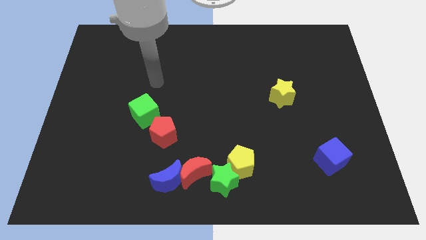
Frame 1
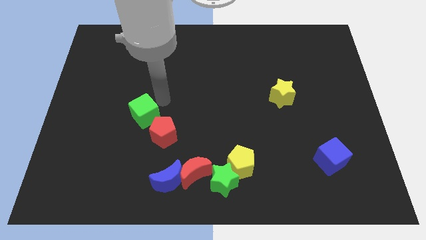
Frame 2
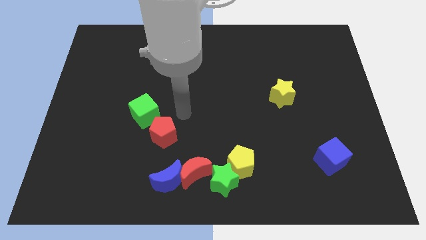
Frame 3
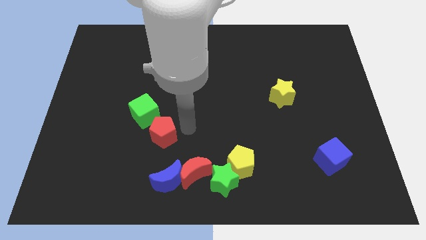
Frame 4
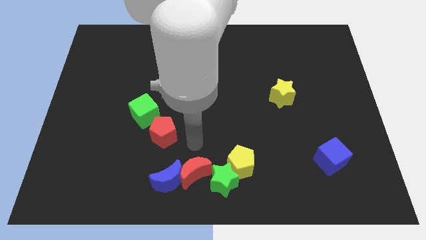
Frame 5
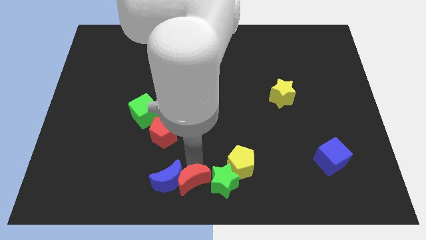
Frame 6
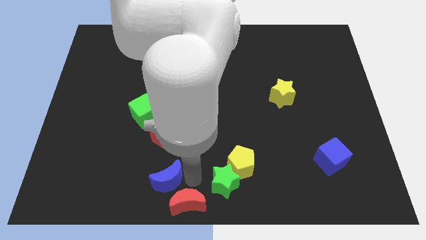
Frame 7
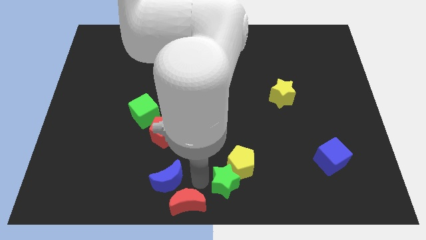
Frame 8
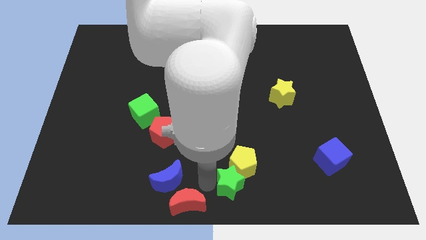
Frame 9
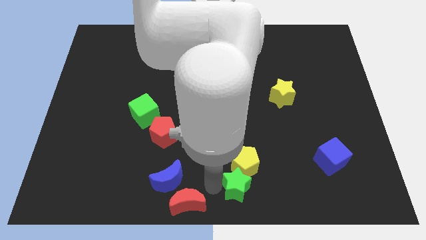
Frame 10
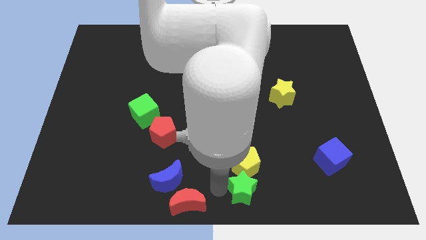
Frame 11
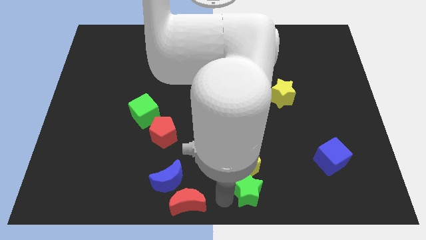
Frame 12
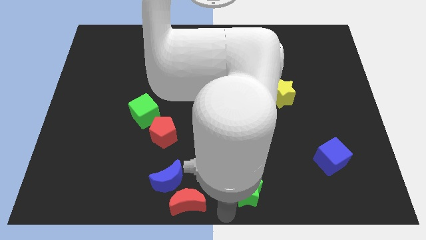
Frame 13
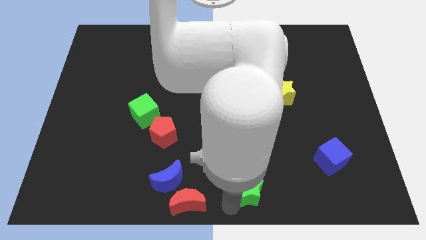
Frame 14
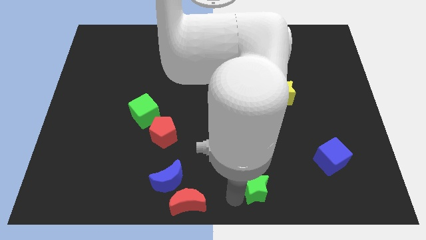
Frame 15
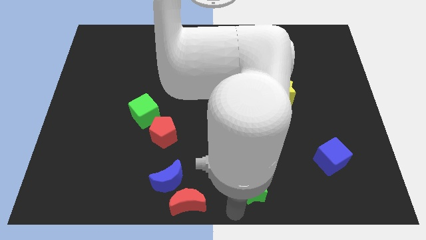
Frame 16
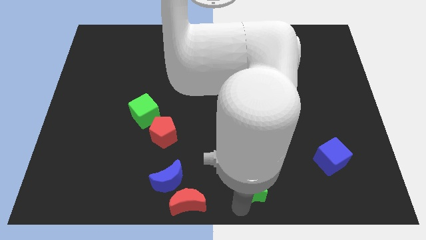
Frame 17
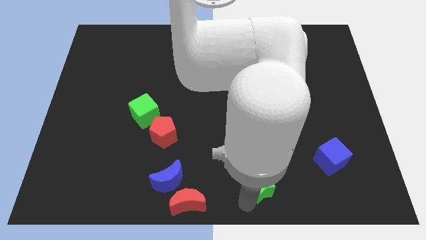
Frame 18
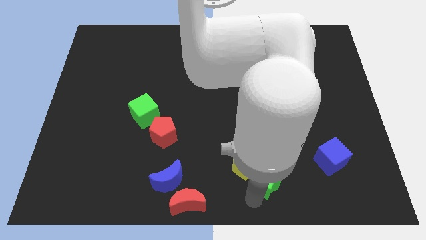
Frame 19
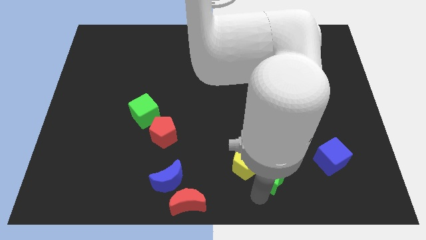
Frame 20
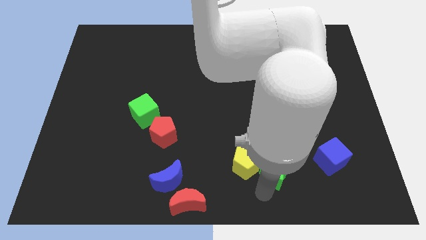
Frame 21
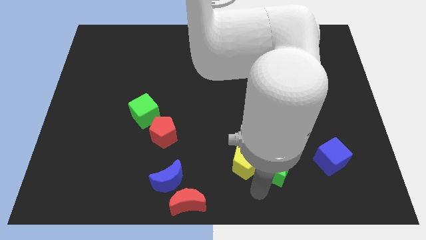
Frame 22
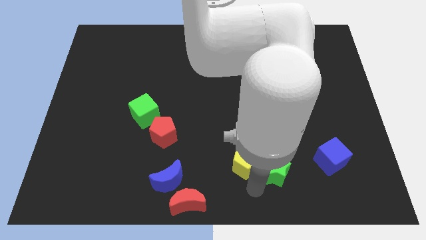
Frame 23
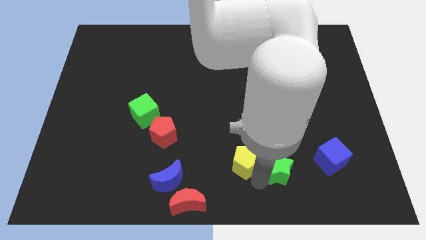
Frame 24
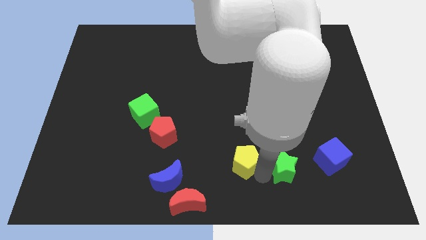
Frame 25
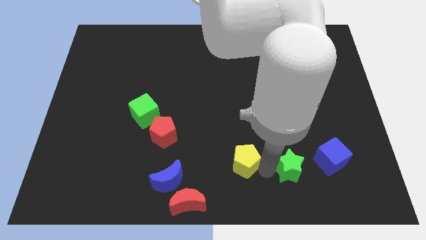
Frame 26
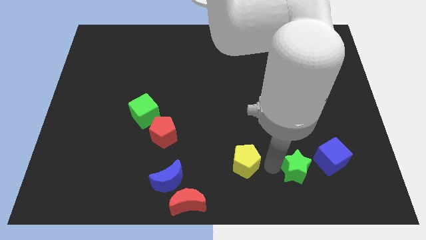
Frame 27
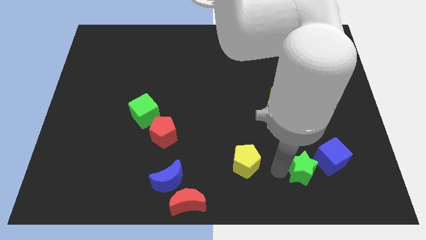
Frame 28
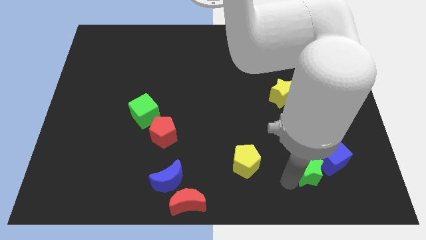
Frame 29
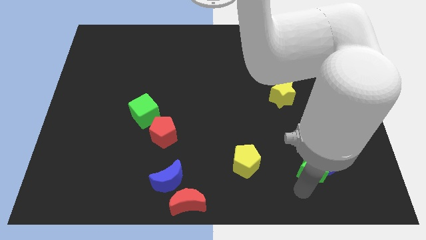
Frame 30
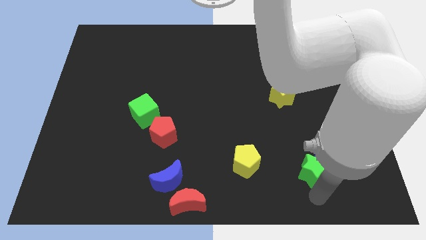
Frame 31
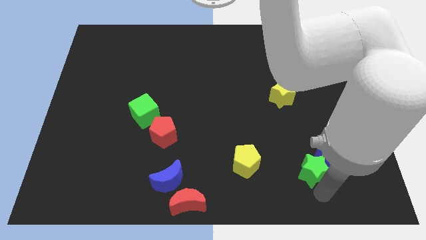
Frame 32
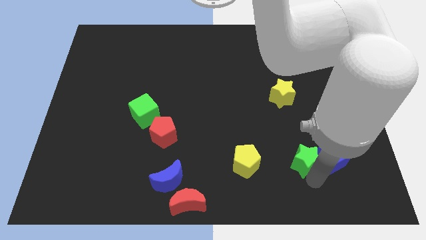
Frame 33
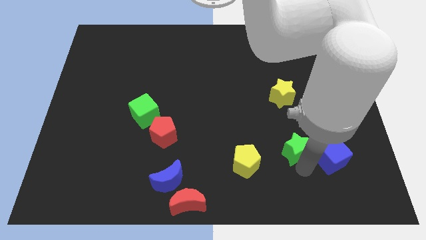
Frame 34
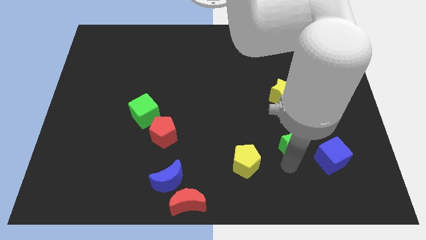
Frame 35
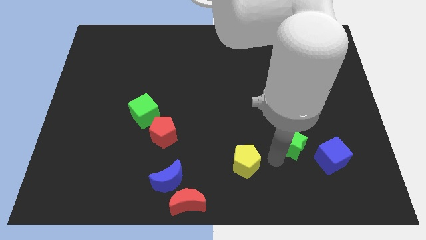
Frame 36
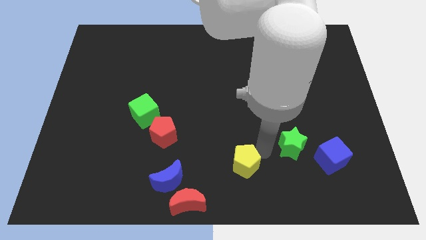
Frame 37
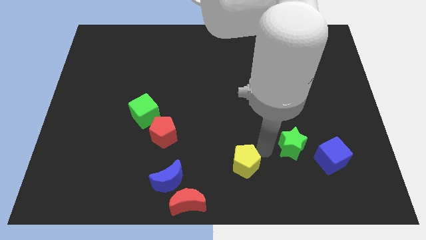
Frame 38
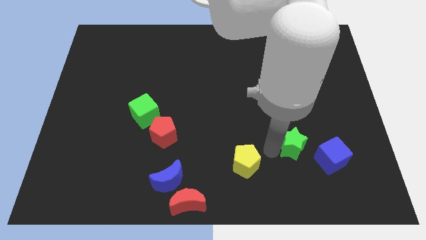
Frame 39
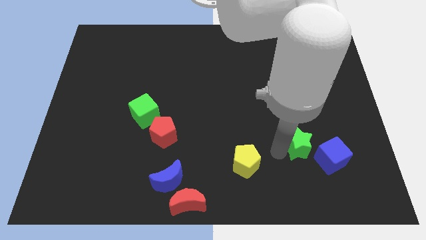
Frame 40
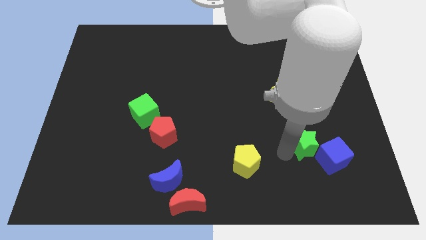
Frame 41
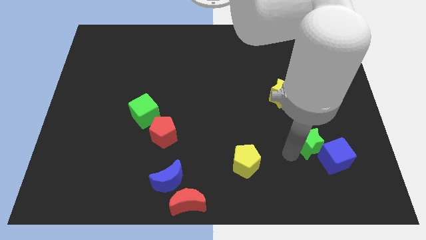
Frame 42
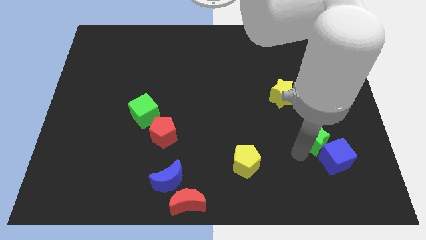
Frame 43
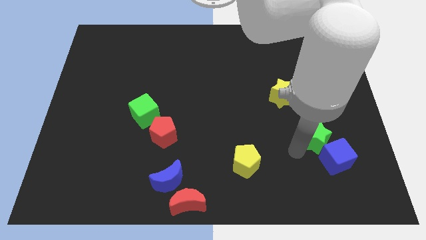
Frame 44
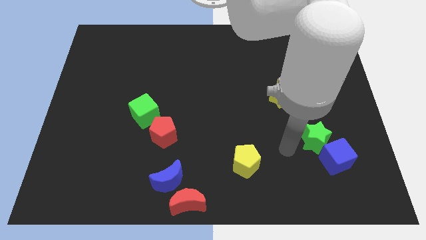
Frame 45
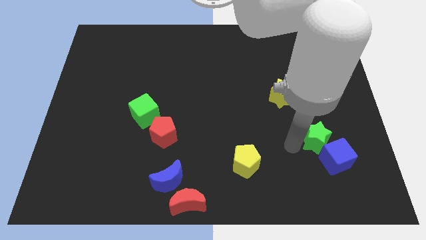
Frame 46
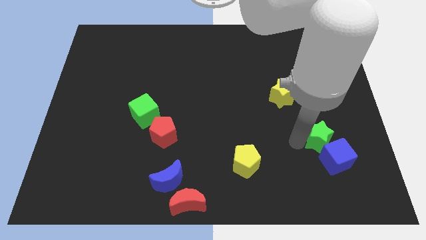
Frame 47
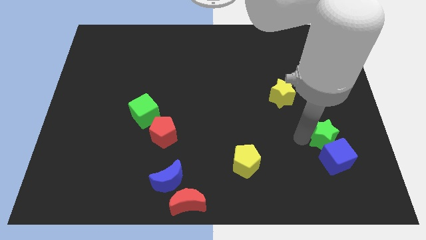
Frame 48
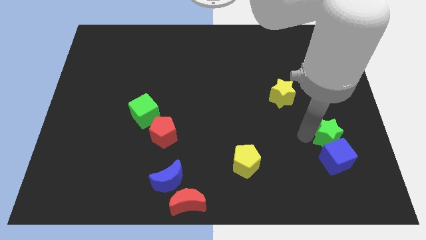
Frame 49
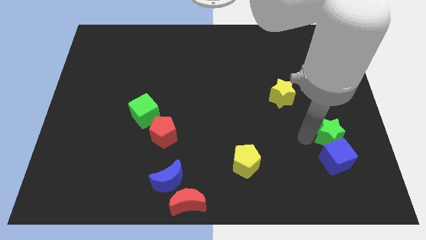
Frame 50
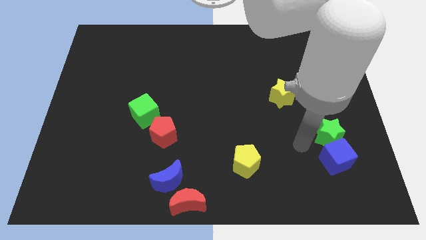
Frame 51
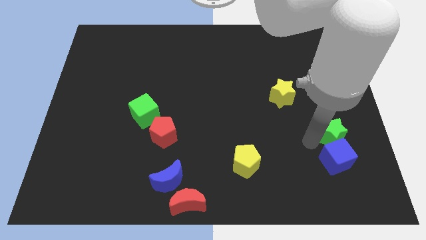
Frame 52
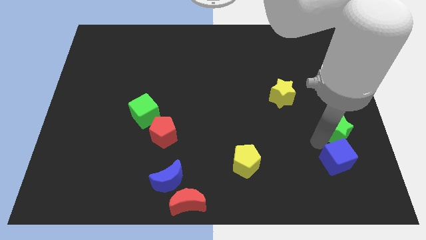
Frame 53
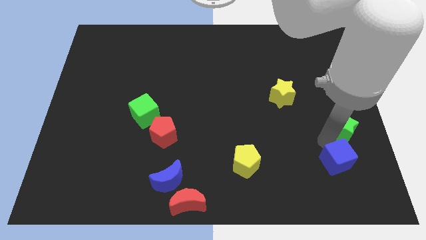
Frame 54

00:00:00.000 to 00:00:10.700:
push the green star to the center right

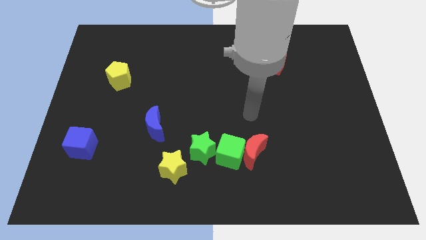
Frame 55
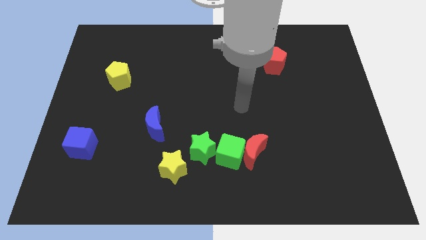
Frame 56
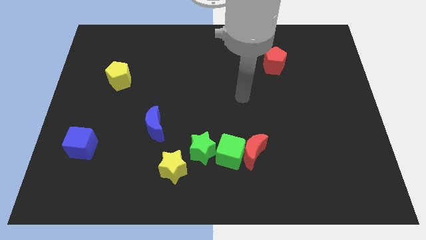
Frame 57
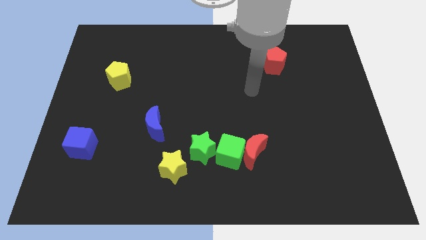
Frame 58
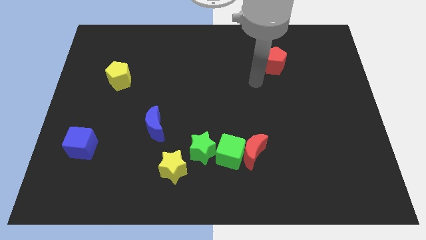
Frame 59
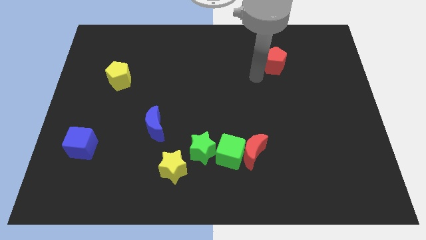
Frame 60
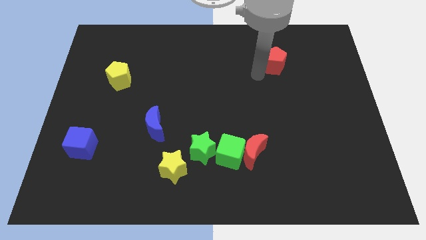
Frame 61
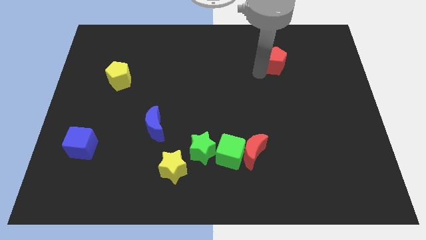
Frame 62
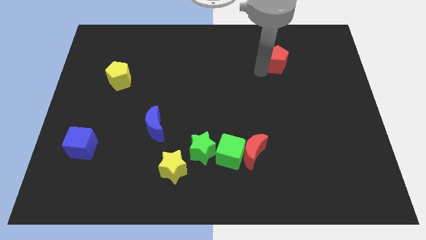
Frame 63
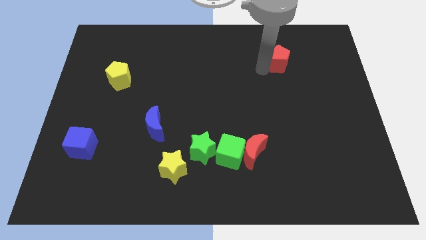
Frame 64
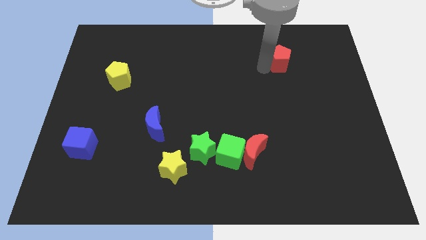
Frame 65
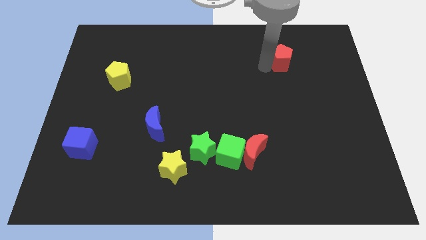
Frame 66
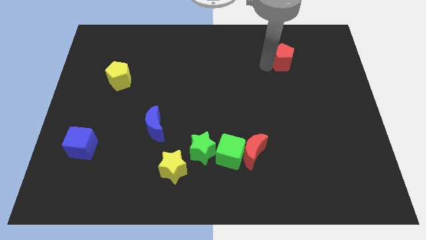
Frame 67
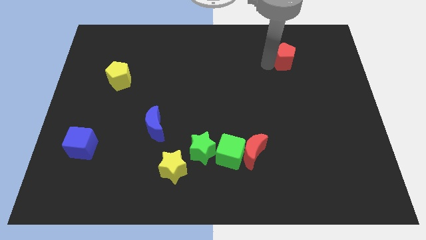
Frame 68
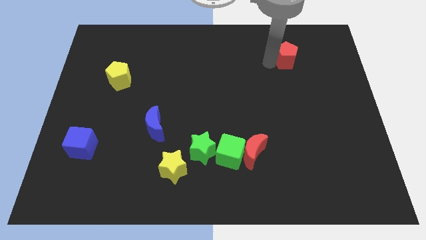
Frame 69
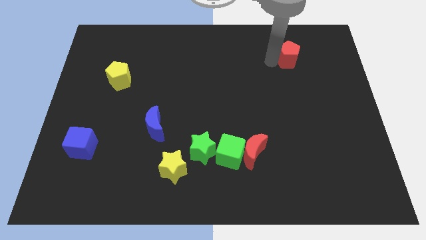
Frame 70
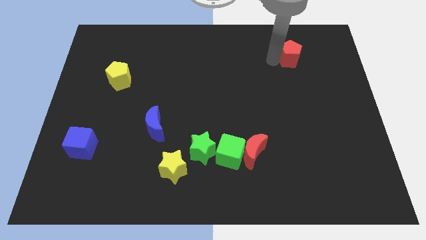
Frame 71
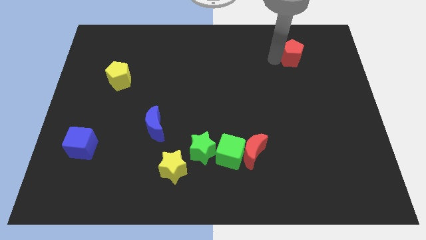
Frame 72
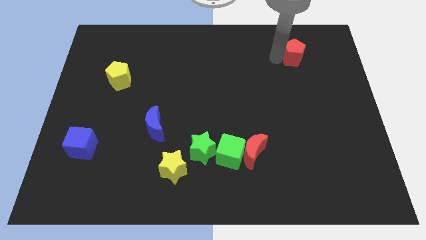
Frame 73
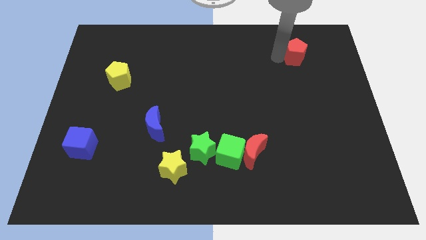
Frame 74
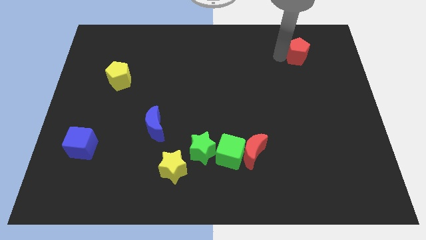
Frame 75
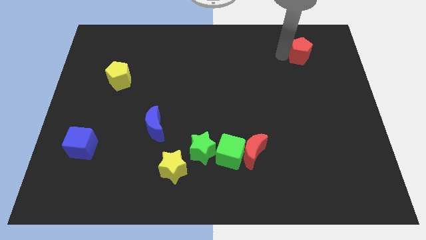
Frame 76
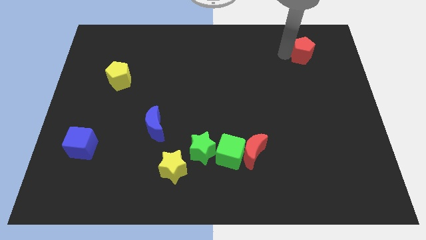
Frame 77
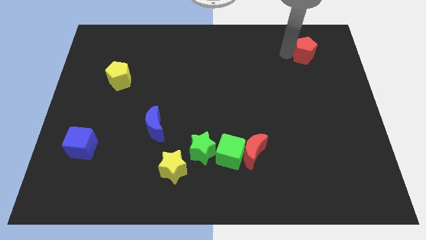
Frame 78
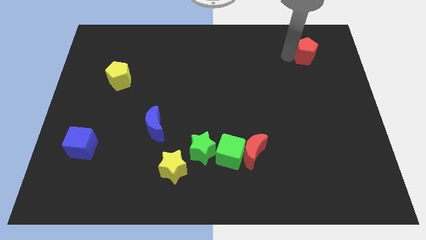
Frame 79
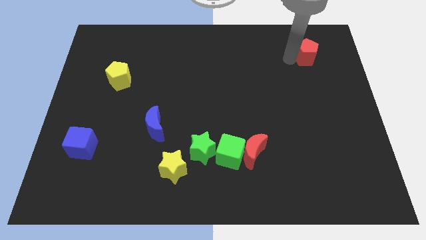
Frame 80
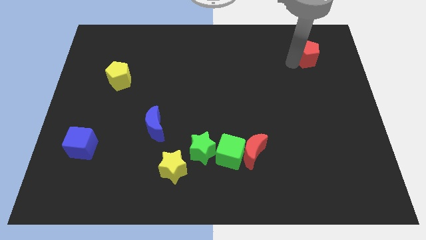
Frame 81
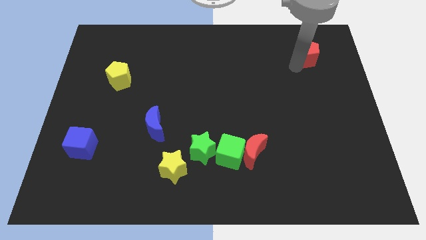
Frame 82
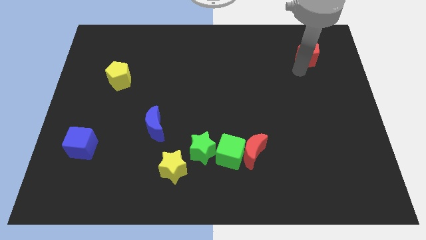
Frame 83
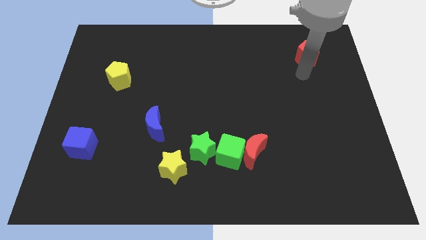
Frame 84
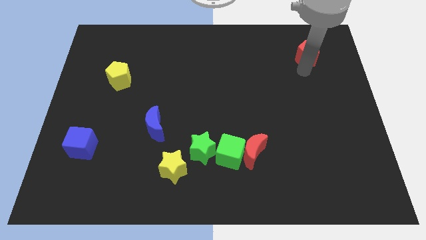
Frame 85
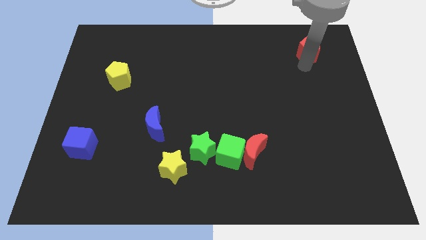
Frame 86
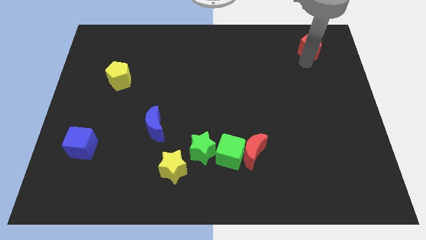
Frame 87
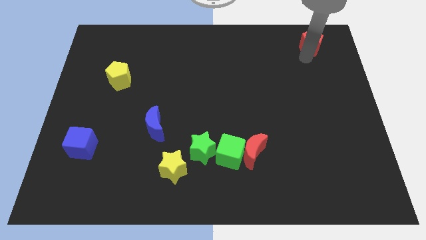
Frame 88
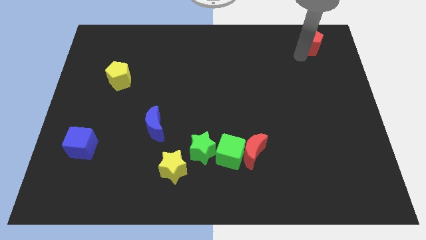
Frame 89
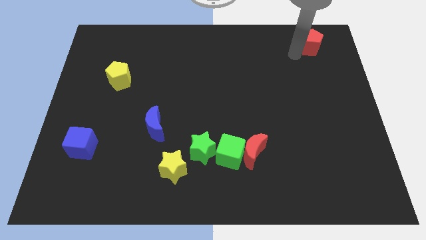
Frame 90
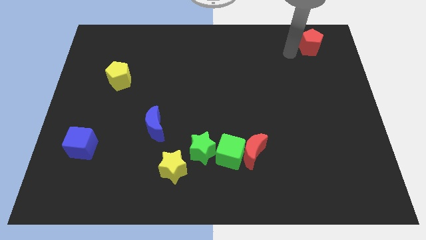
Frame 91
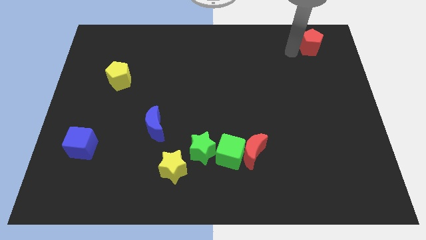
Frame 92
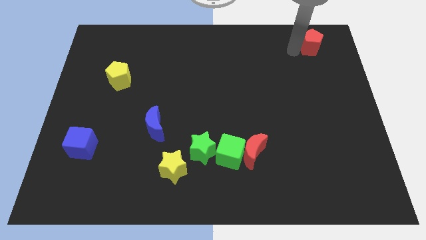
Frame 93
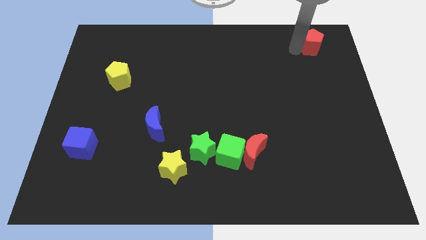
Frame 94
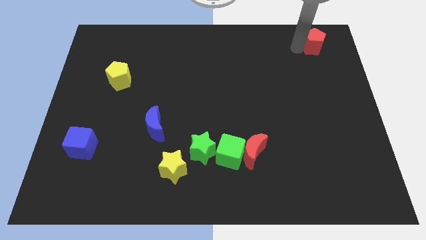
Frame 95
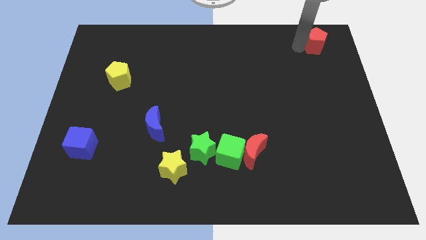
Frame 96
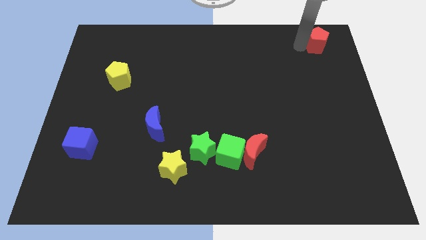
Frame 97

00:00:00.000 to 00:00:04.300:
put the red pentagon to the upper right corner
